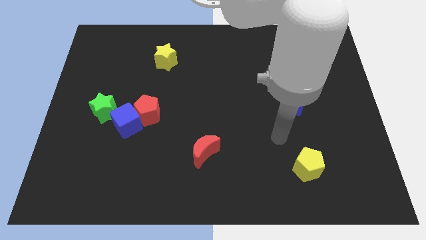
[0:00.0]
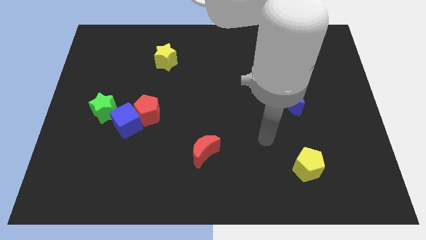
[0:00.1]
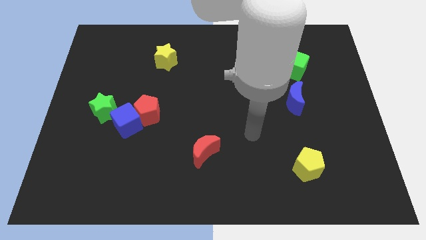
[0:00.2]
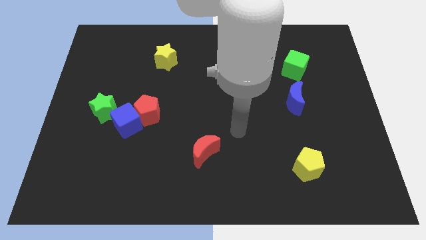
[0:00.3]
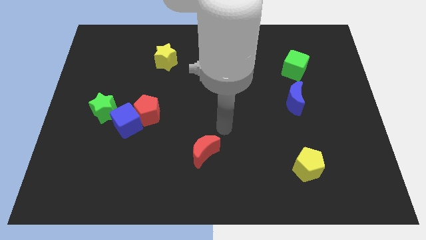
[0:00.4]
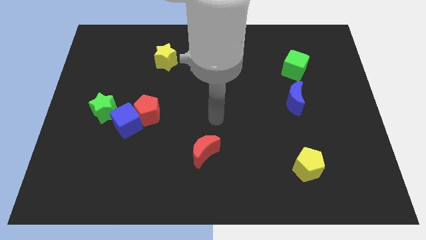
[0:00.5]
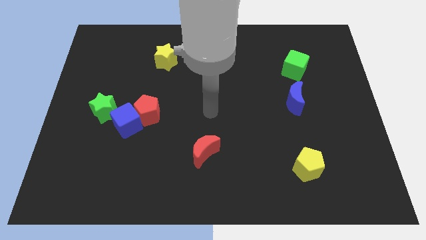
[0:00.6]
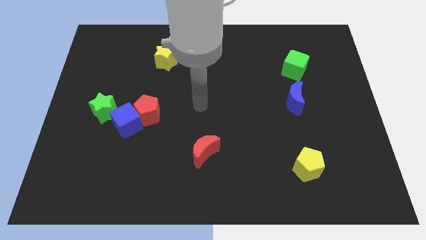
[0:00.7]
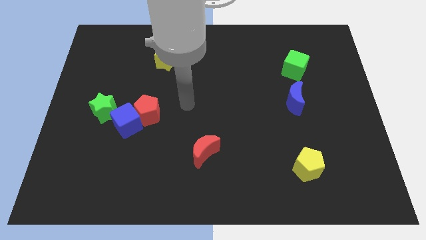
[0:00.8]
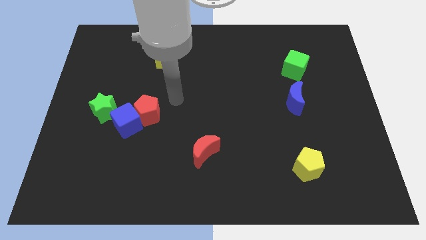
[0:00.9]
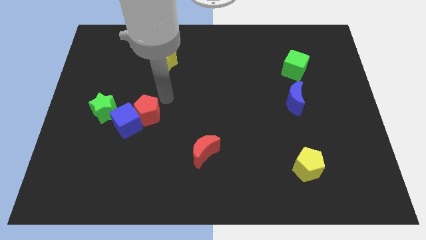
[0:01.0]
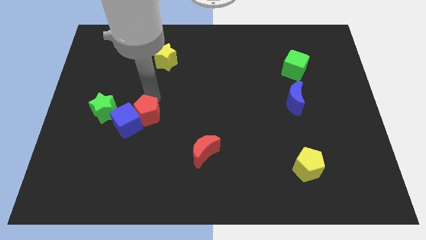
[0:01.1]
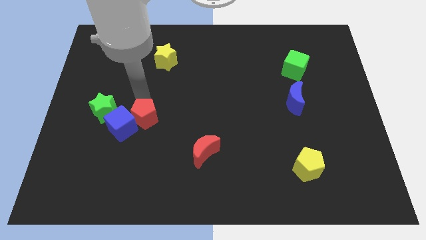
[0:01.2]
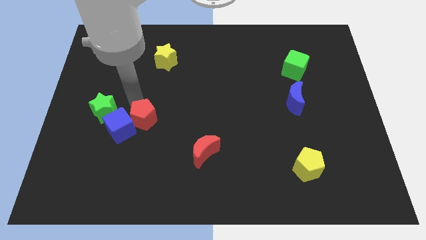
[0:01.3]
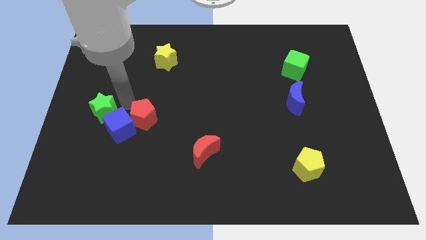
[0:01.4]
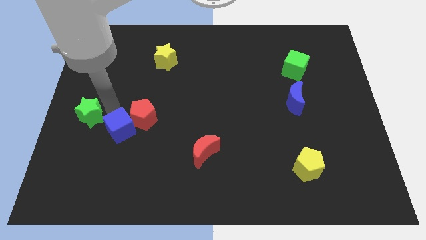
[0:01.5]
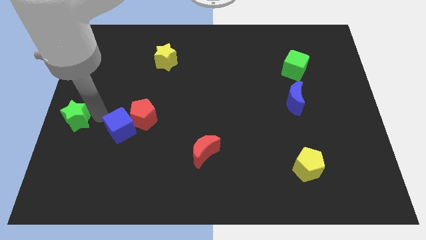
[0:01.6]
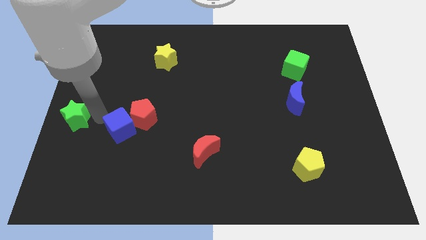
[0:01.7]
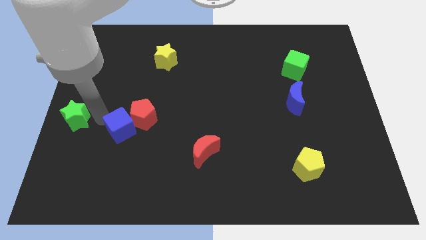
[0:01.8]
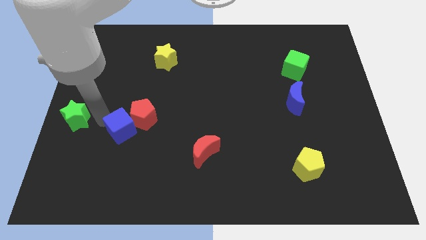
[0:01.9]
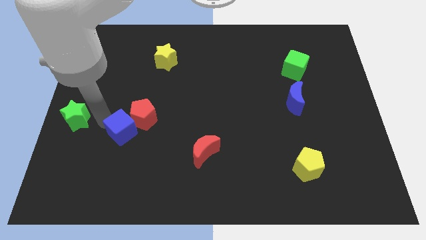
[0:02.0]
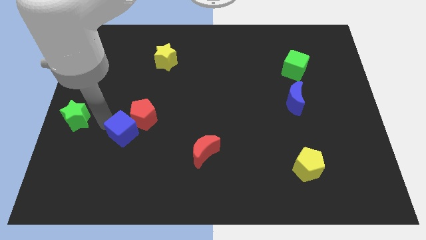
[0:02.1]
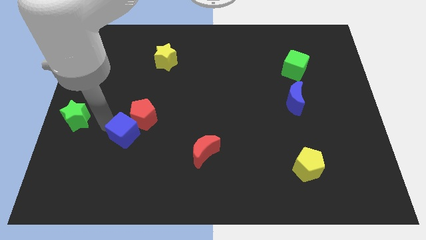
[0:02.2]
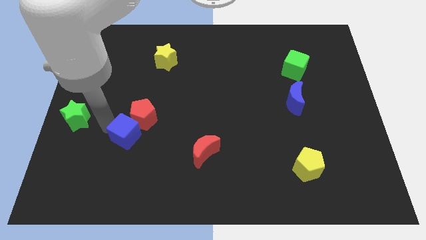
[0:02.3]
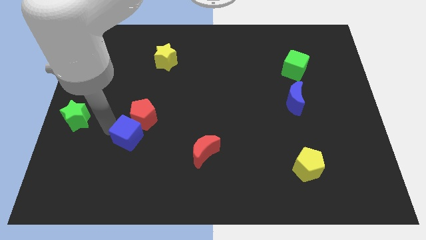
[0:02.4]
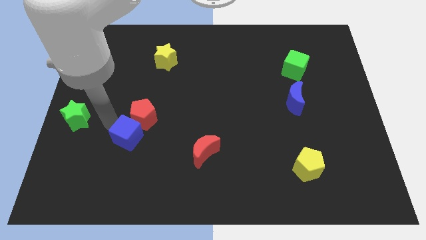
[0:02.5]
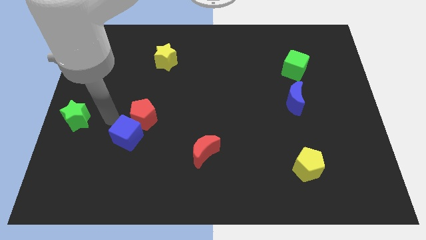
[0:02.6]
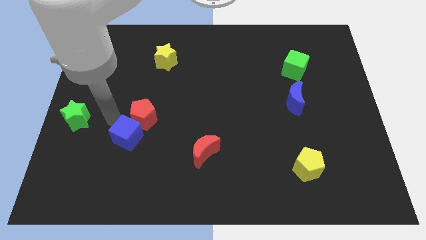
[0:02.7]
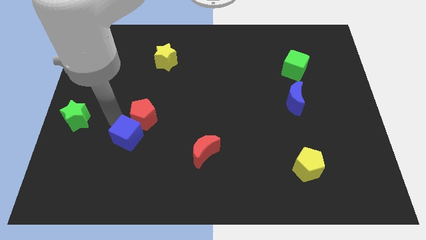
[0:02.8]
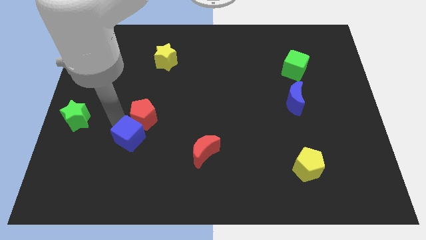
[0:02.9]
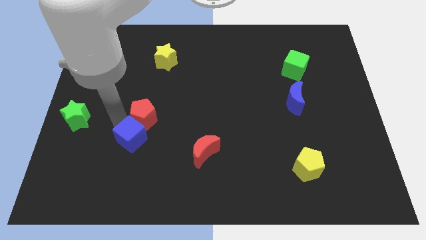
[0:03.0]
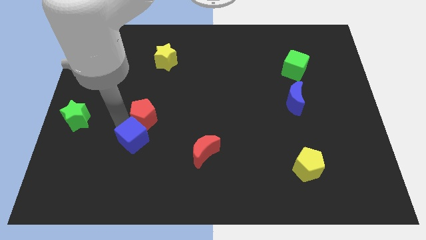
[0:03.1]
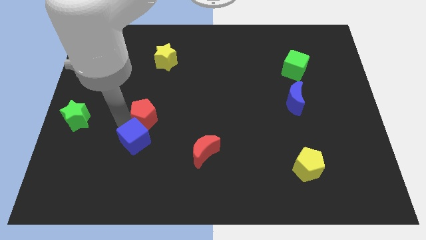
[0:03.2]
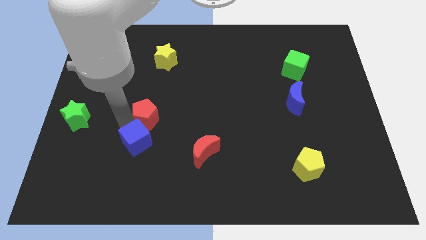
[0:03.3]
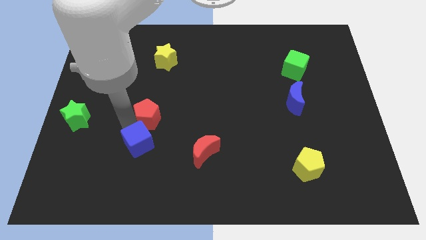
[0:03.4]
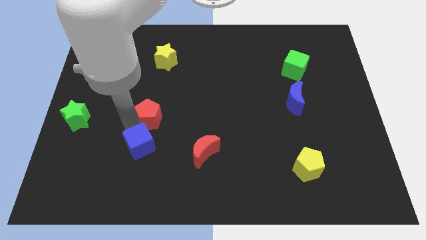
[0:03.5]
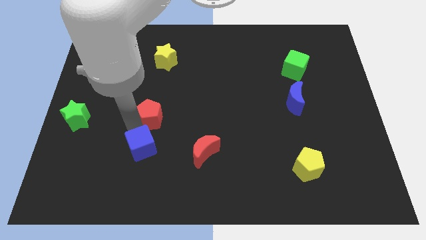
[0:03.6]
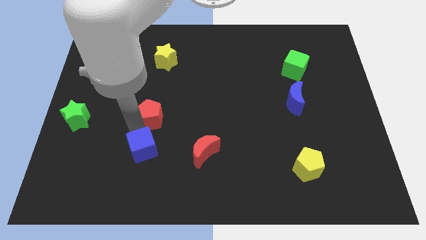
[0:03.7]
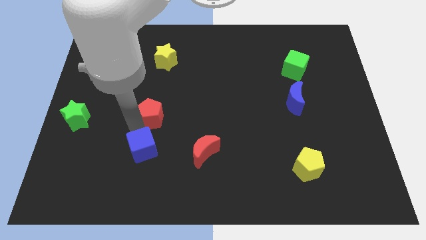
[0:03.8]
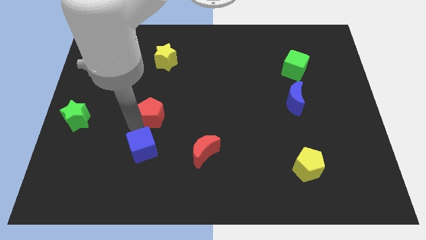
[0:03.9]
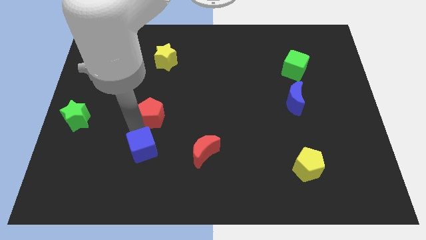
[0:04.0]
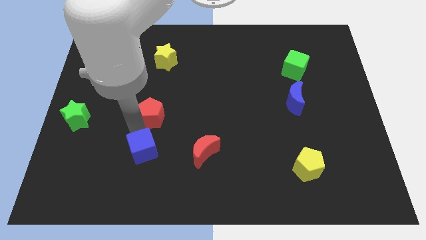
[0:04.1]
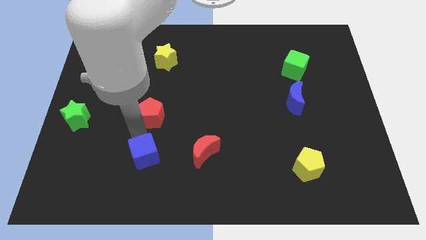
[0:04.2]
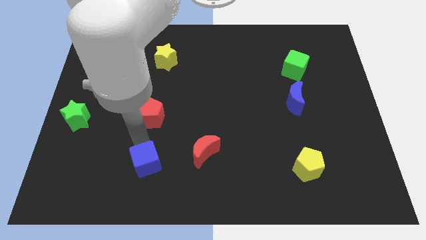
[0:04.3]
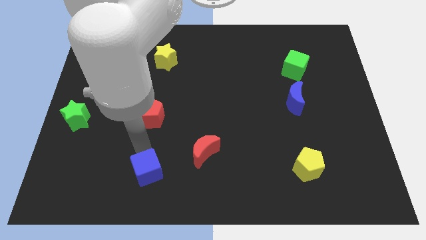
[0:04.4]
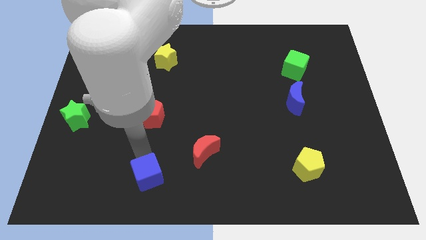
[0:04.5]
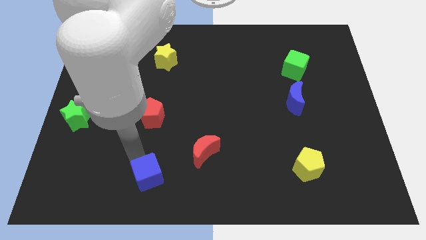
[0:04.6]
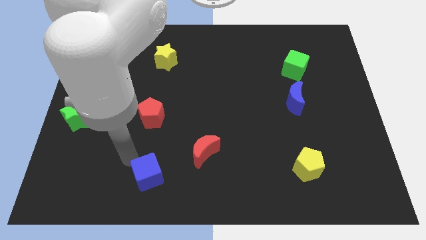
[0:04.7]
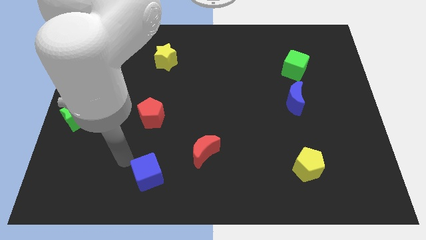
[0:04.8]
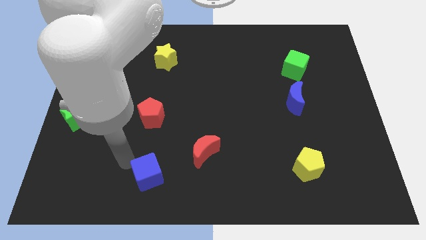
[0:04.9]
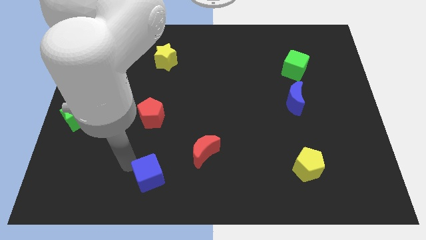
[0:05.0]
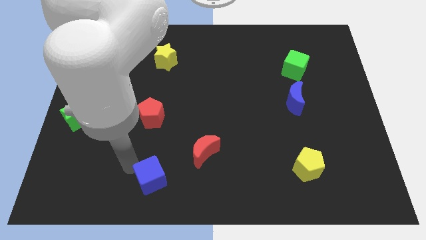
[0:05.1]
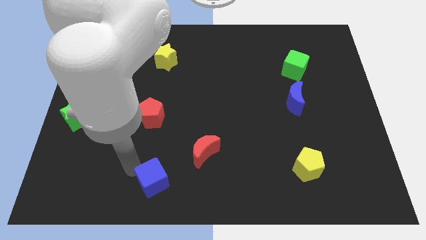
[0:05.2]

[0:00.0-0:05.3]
push the blue cube to the bottom

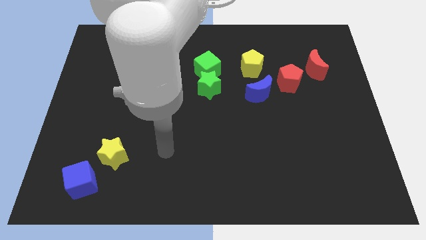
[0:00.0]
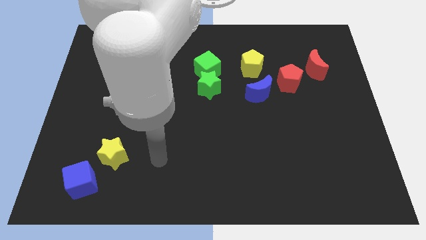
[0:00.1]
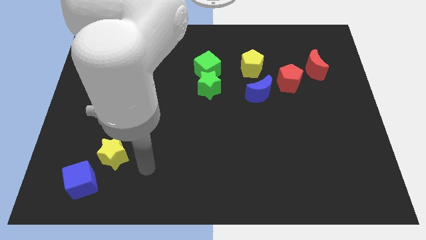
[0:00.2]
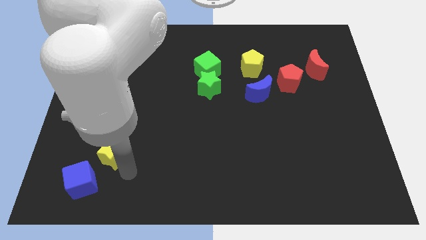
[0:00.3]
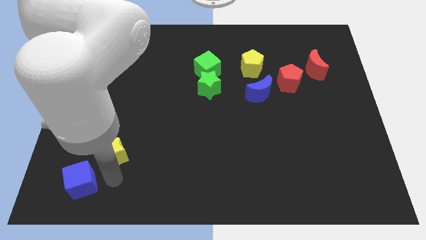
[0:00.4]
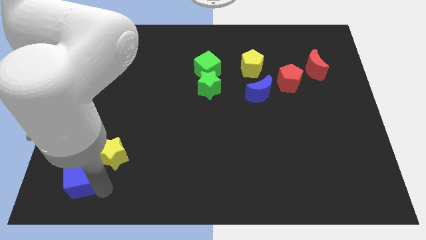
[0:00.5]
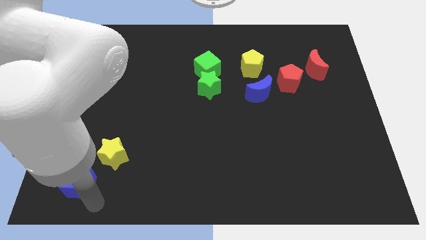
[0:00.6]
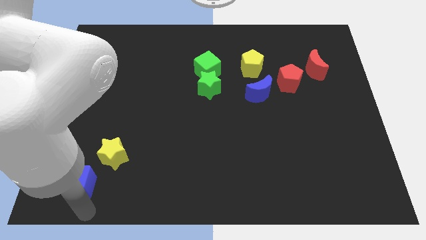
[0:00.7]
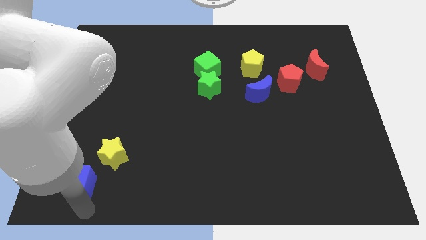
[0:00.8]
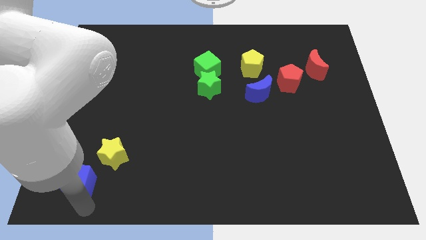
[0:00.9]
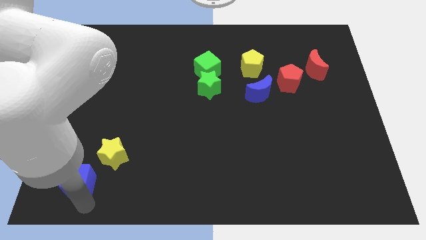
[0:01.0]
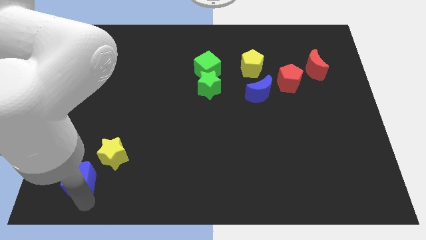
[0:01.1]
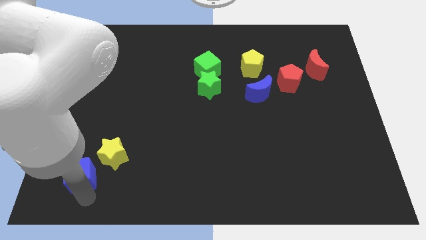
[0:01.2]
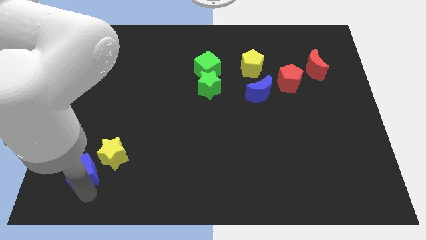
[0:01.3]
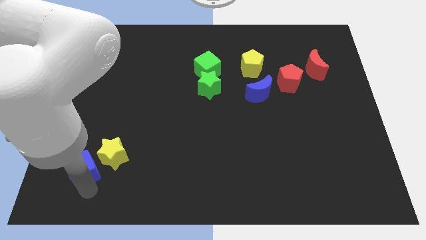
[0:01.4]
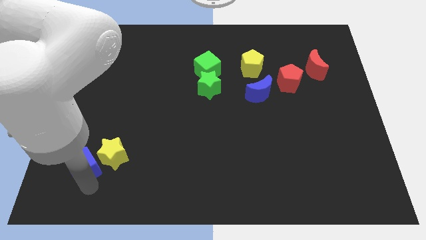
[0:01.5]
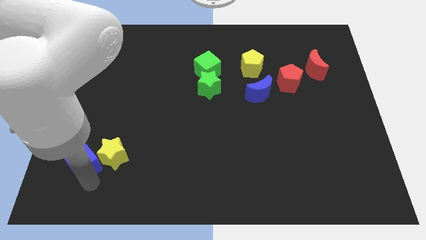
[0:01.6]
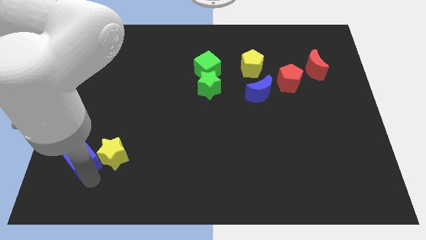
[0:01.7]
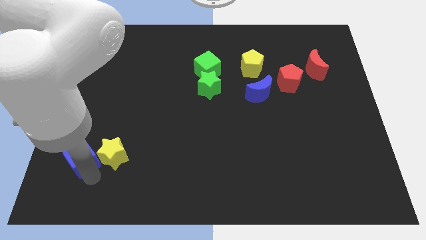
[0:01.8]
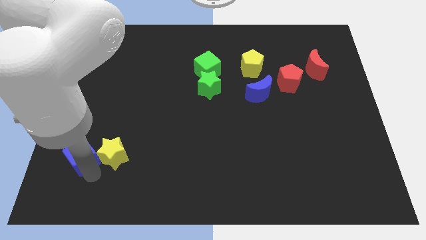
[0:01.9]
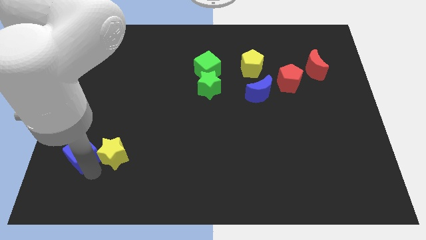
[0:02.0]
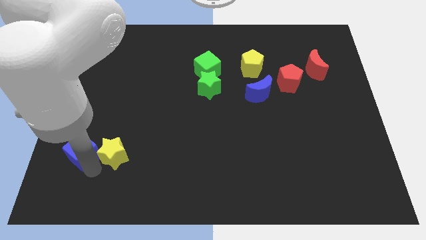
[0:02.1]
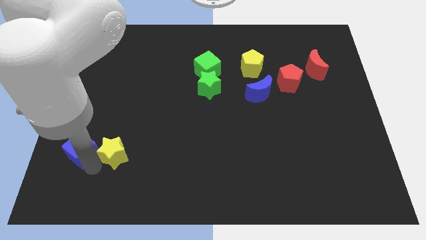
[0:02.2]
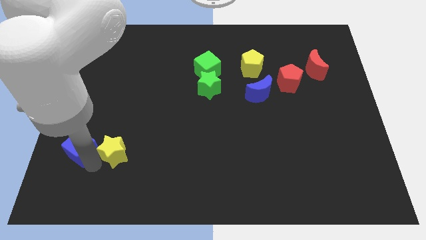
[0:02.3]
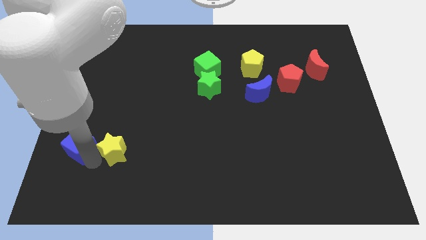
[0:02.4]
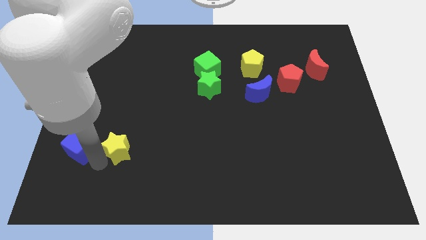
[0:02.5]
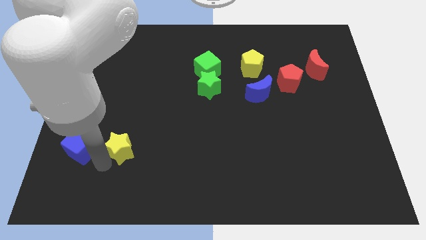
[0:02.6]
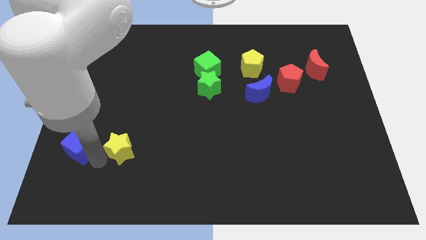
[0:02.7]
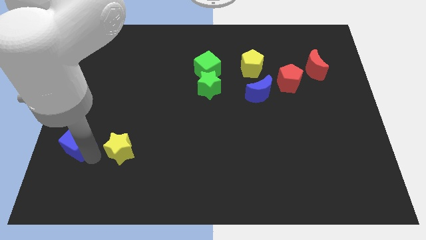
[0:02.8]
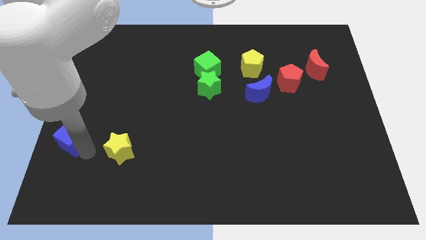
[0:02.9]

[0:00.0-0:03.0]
push the blue cube to the left side
